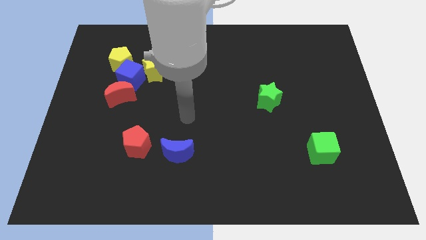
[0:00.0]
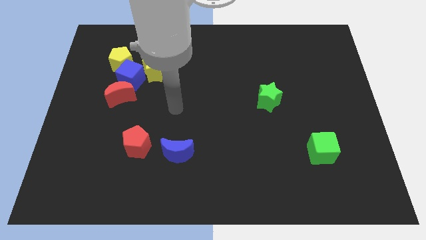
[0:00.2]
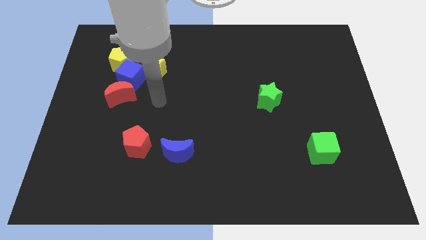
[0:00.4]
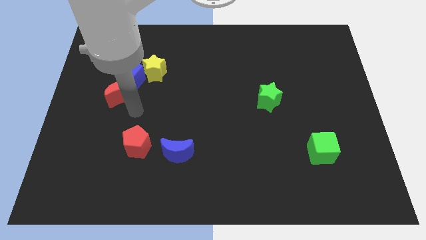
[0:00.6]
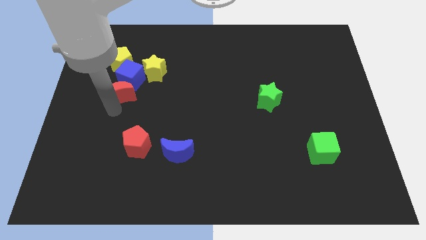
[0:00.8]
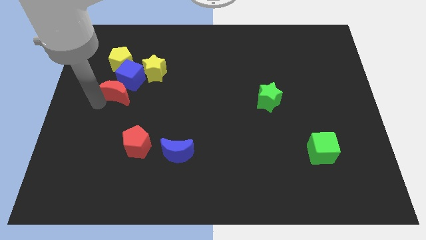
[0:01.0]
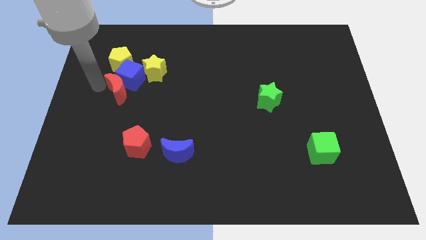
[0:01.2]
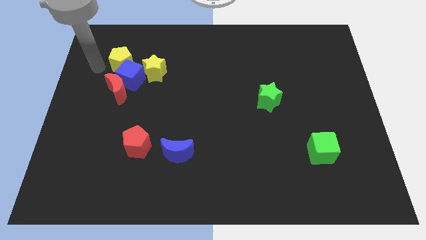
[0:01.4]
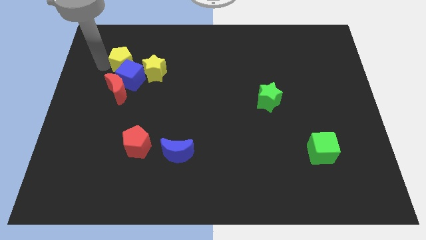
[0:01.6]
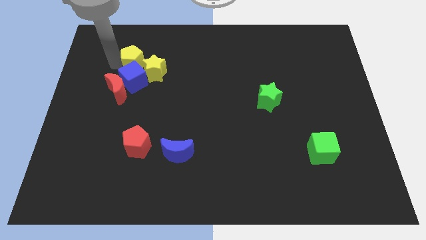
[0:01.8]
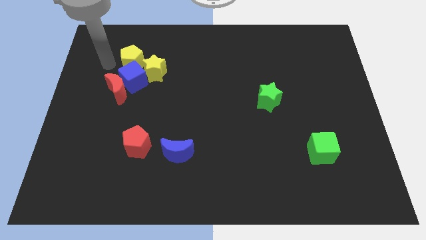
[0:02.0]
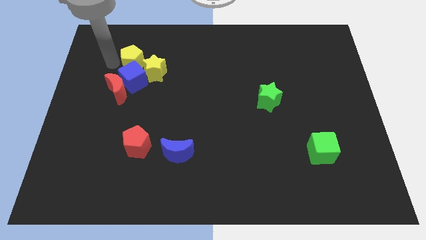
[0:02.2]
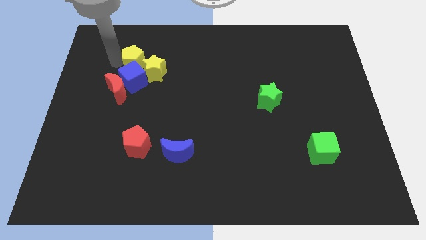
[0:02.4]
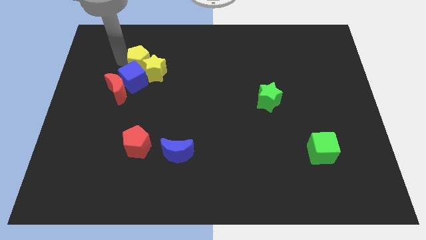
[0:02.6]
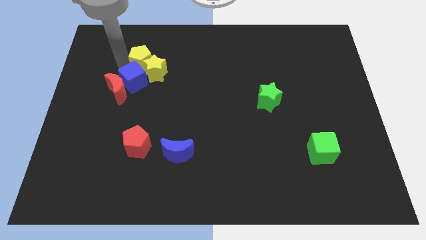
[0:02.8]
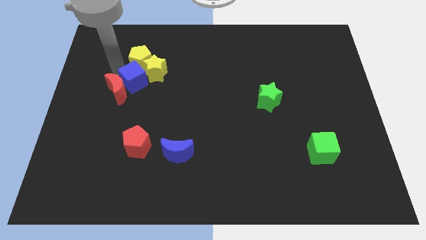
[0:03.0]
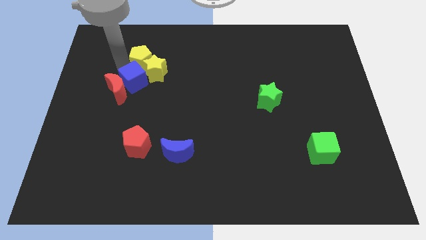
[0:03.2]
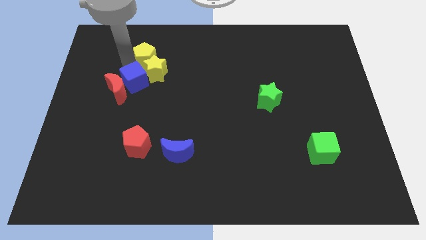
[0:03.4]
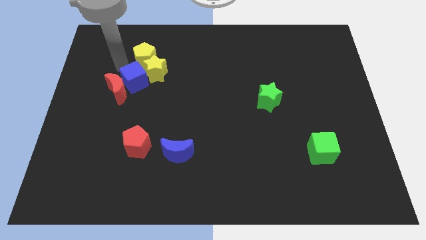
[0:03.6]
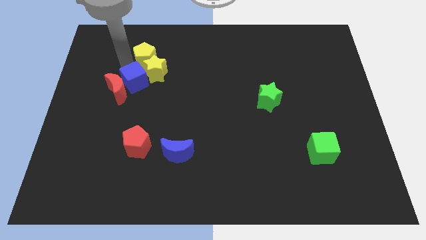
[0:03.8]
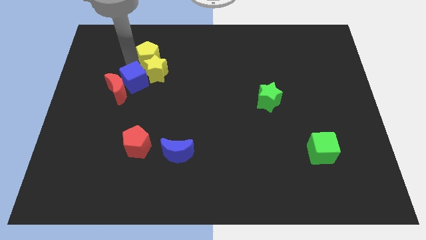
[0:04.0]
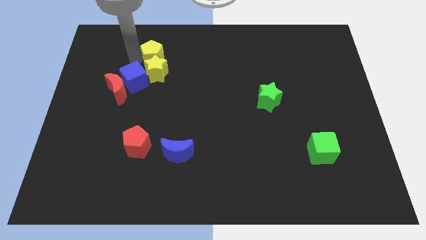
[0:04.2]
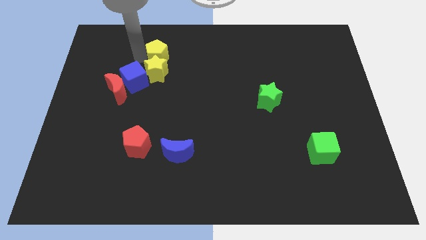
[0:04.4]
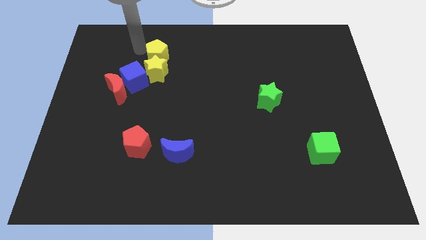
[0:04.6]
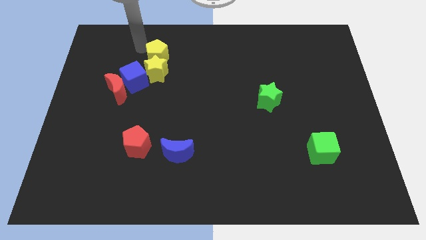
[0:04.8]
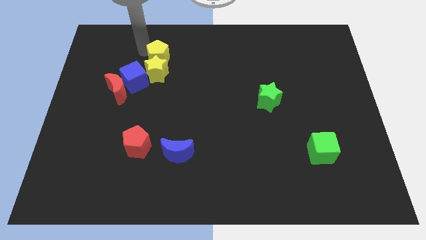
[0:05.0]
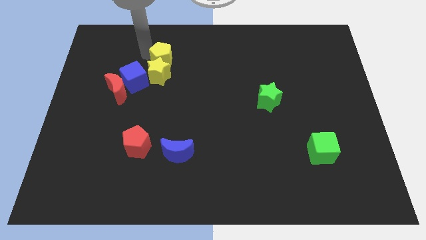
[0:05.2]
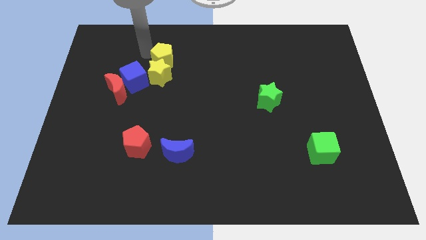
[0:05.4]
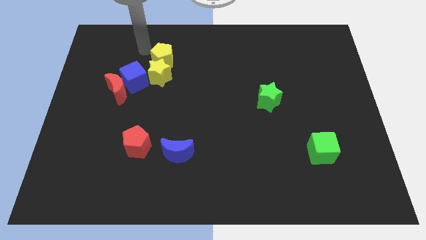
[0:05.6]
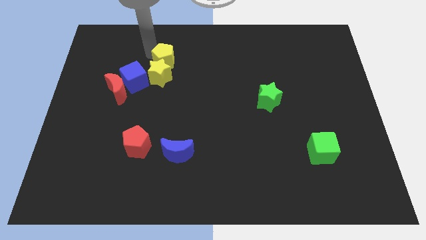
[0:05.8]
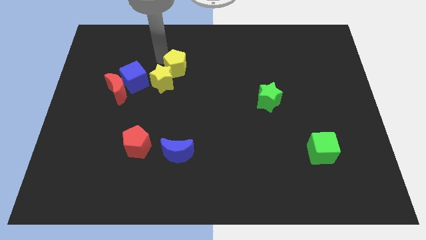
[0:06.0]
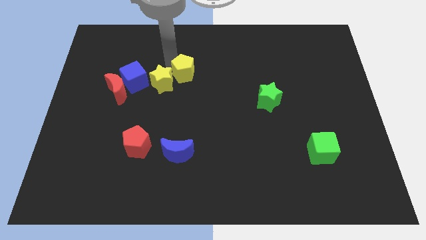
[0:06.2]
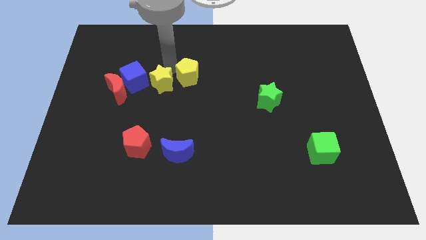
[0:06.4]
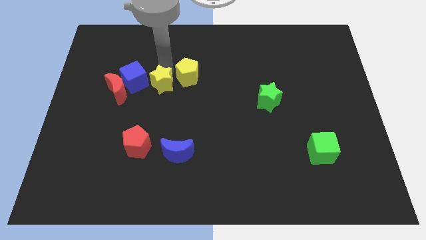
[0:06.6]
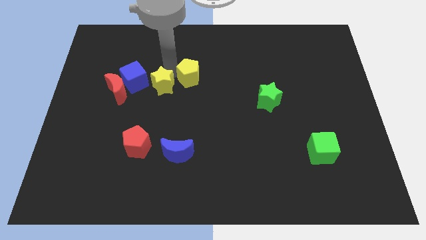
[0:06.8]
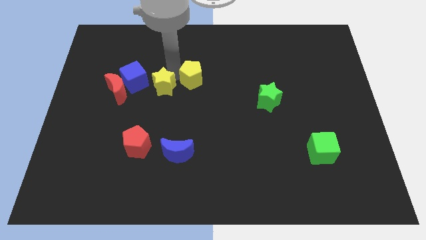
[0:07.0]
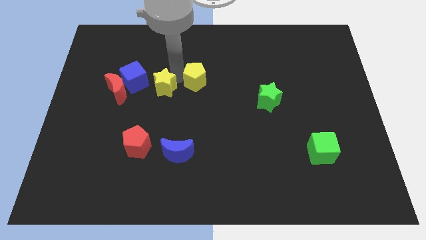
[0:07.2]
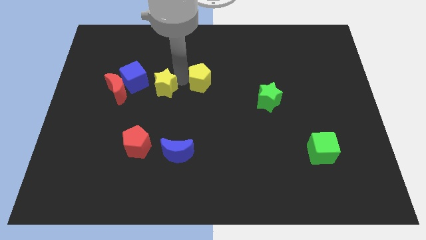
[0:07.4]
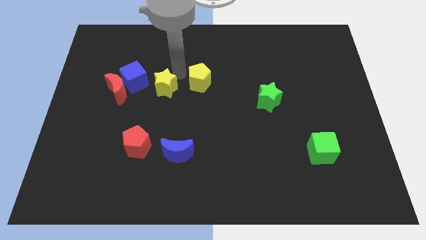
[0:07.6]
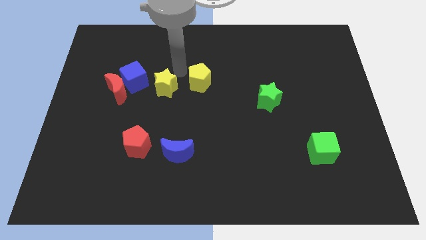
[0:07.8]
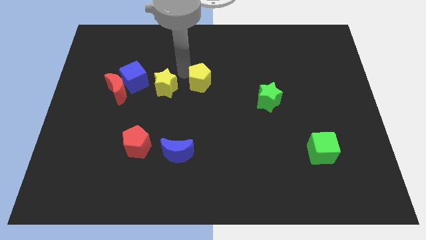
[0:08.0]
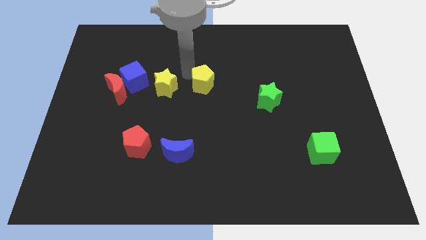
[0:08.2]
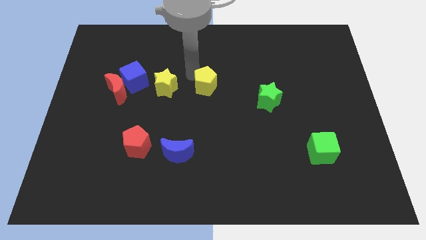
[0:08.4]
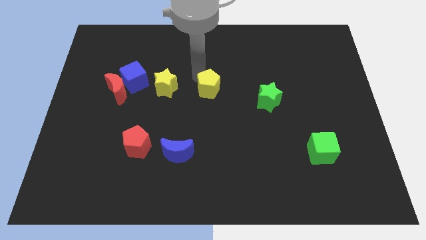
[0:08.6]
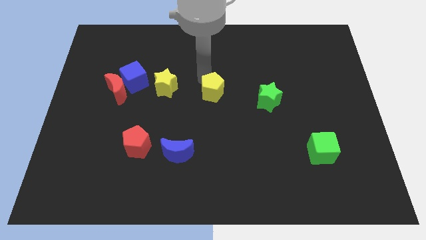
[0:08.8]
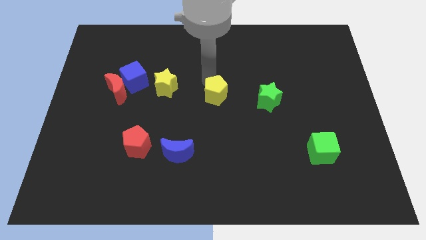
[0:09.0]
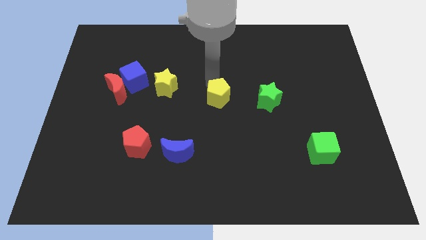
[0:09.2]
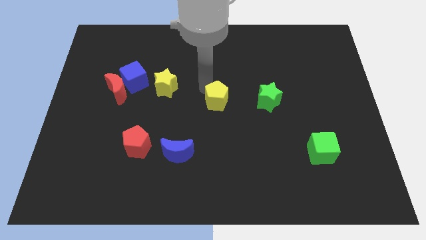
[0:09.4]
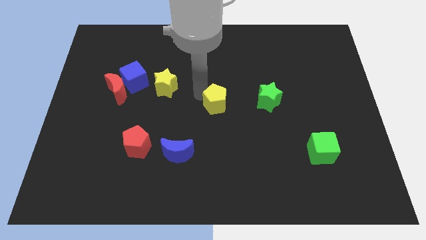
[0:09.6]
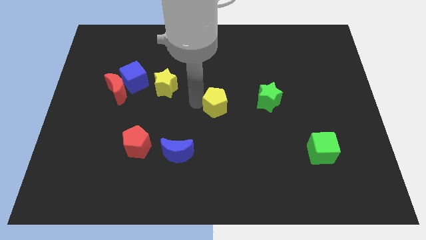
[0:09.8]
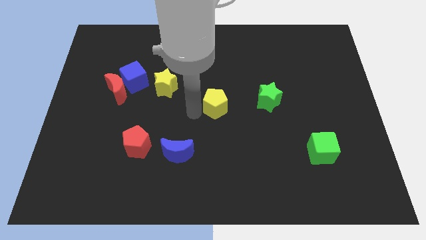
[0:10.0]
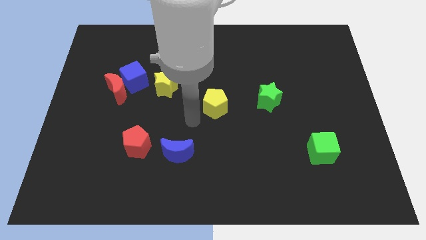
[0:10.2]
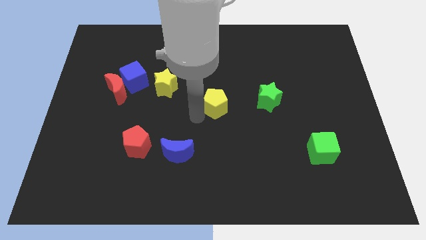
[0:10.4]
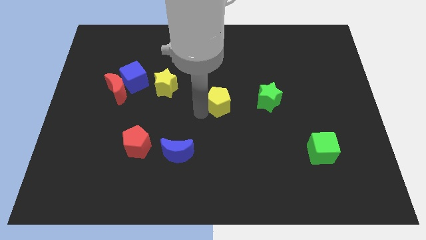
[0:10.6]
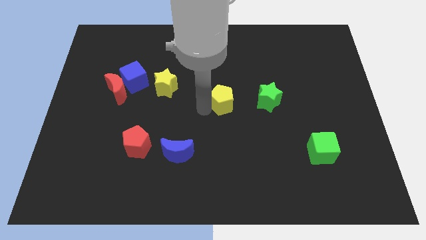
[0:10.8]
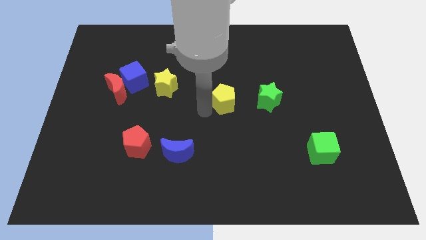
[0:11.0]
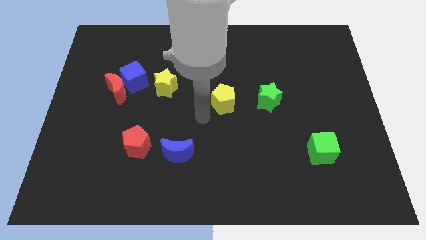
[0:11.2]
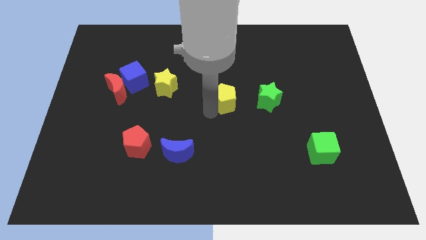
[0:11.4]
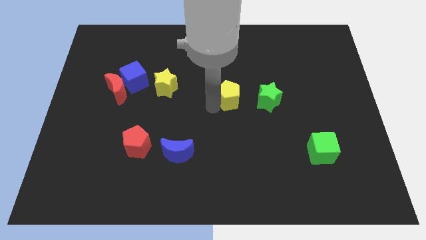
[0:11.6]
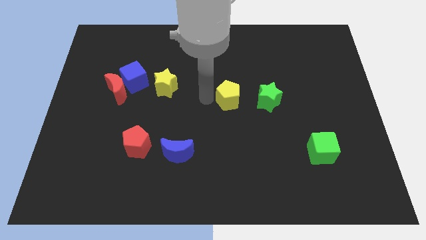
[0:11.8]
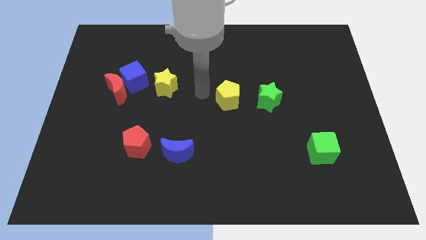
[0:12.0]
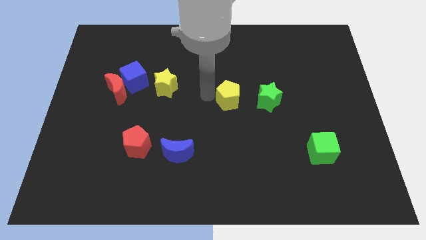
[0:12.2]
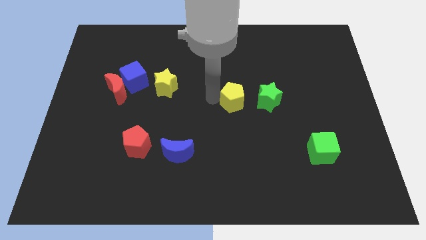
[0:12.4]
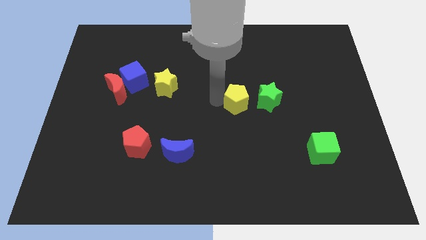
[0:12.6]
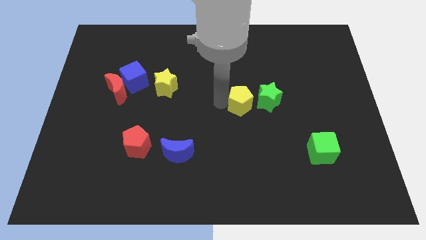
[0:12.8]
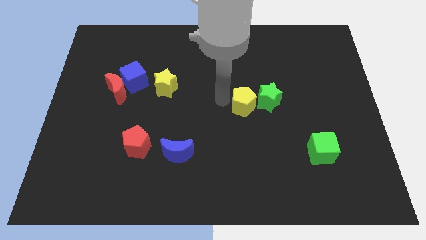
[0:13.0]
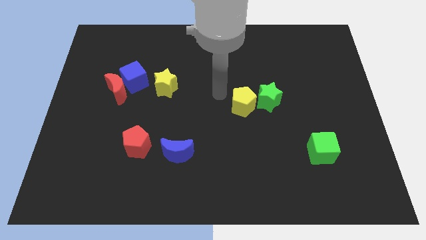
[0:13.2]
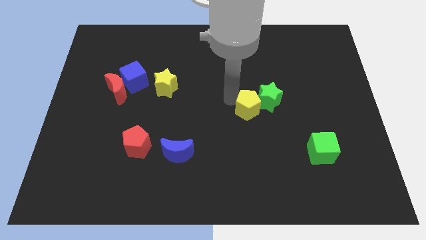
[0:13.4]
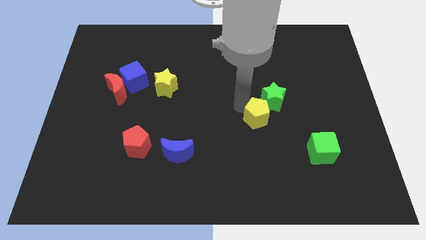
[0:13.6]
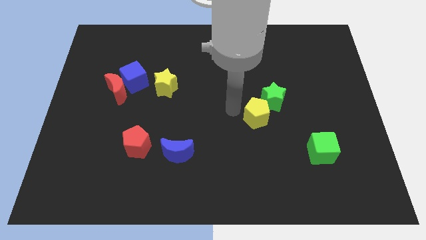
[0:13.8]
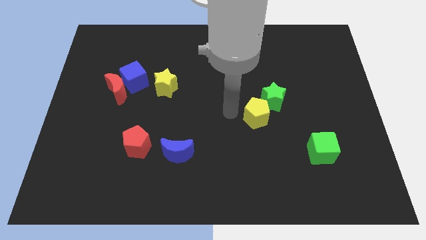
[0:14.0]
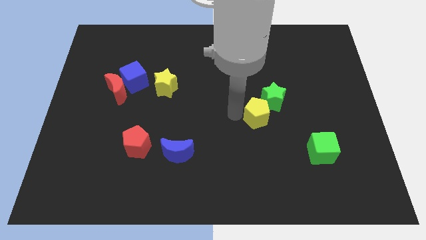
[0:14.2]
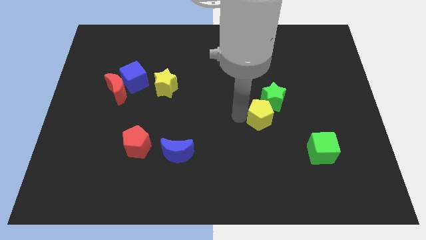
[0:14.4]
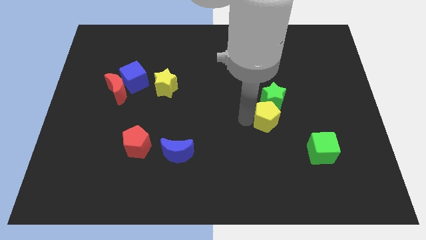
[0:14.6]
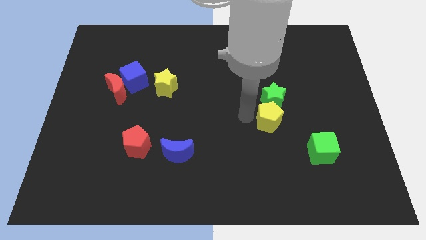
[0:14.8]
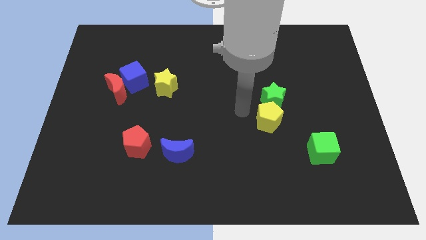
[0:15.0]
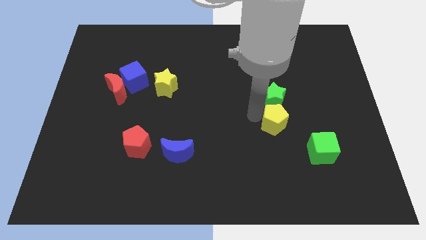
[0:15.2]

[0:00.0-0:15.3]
put the yellow pentagon diagonally up and to the left of the green cube
